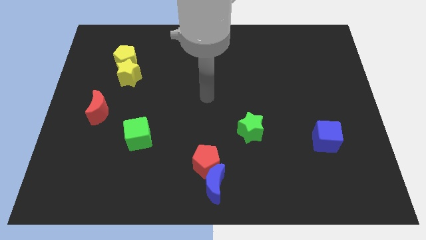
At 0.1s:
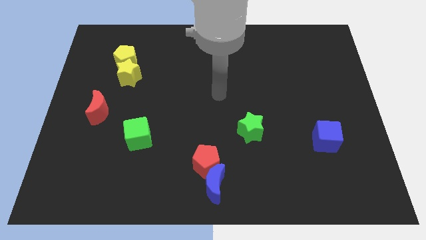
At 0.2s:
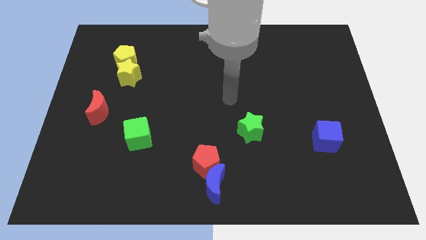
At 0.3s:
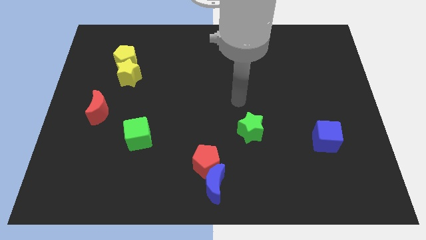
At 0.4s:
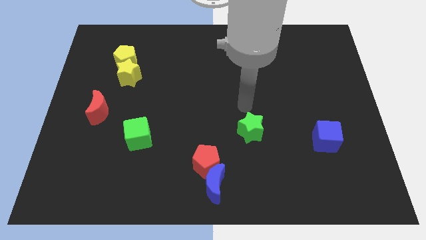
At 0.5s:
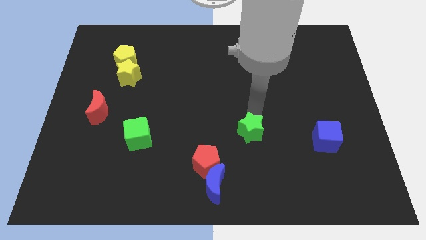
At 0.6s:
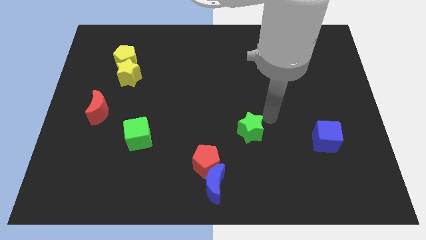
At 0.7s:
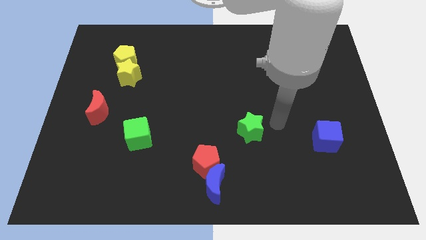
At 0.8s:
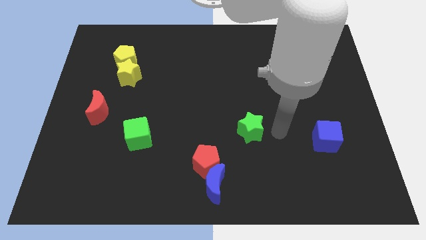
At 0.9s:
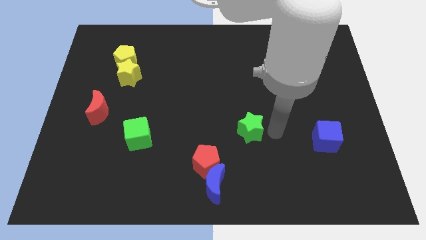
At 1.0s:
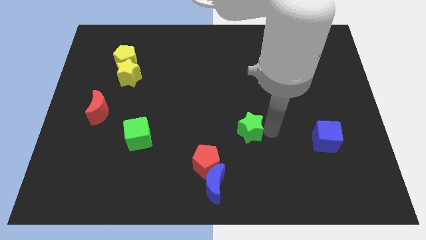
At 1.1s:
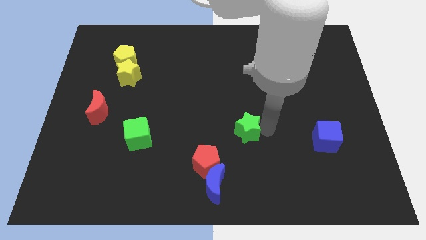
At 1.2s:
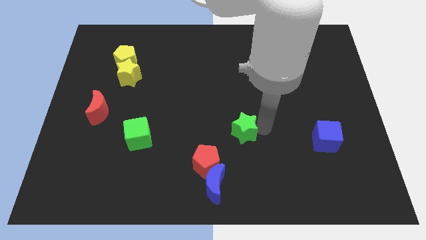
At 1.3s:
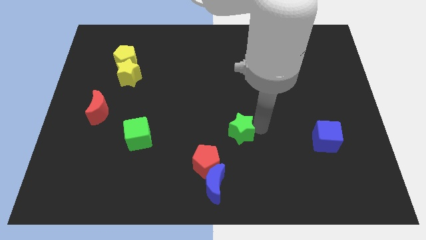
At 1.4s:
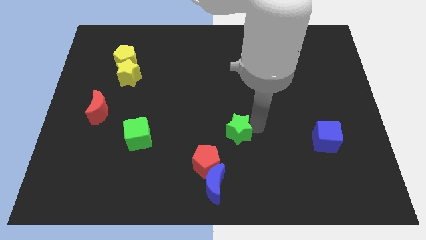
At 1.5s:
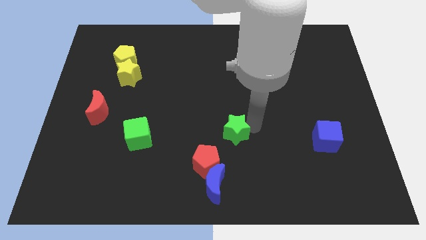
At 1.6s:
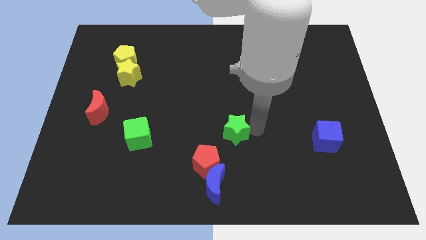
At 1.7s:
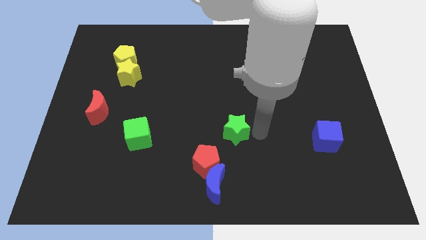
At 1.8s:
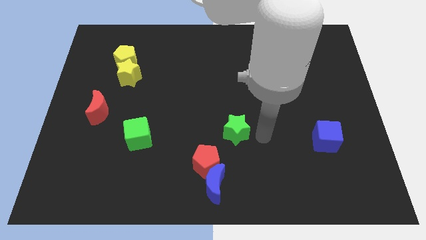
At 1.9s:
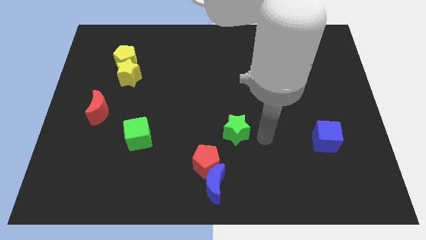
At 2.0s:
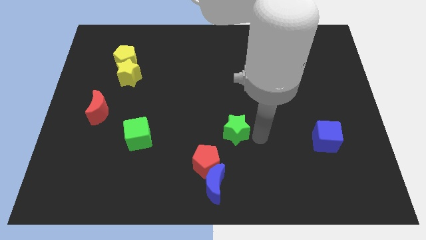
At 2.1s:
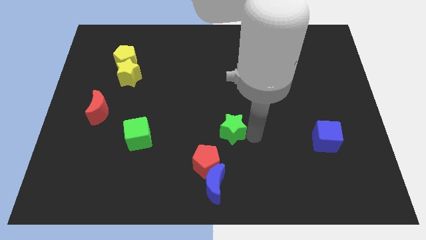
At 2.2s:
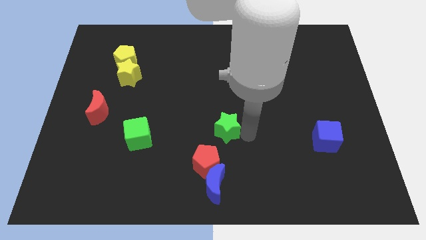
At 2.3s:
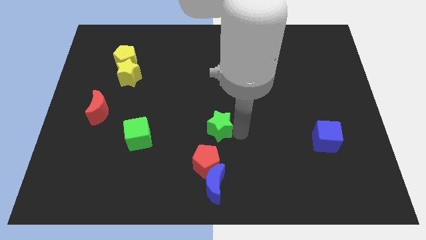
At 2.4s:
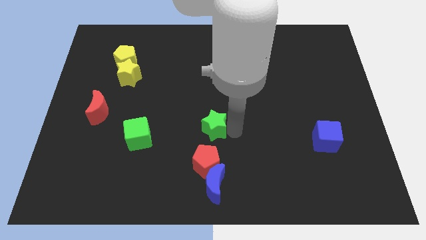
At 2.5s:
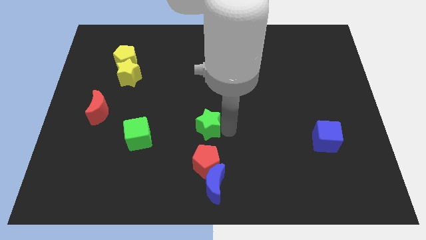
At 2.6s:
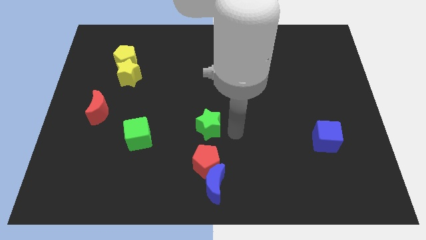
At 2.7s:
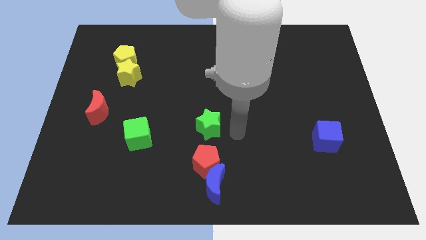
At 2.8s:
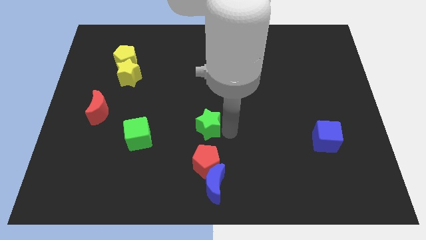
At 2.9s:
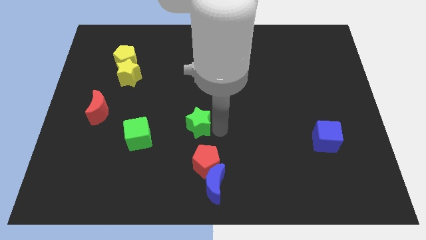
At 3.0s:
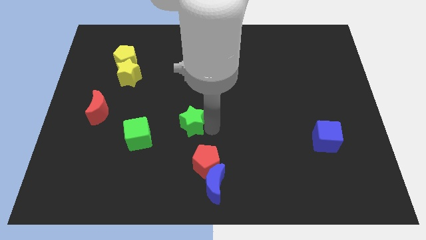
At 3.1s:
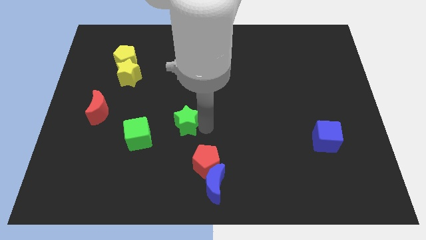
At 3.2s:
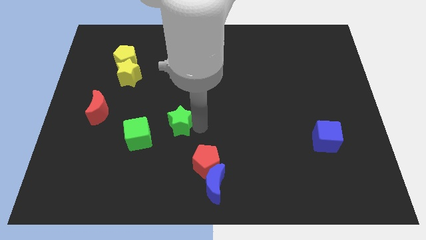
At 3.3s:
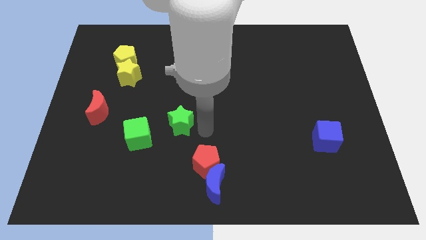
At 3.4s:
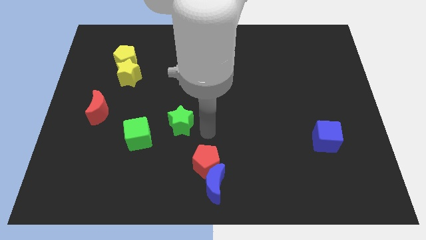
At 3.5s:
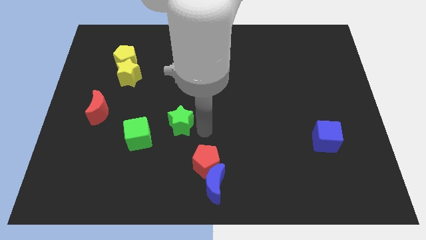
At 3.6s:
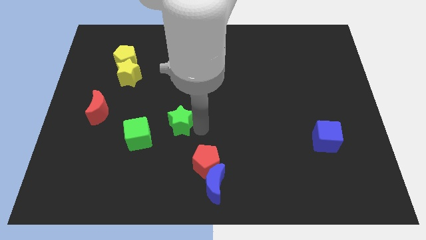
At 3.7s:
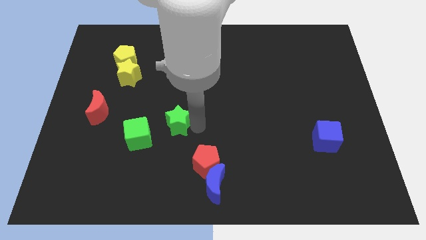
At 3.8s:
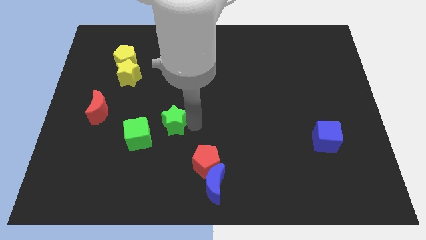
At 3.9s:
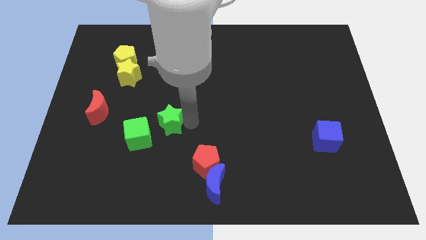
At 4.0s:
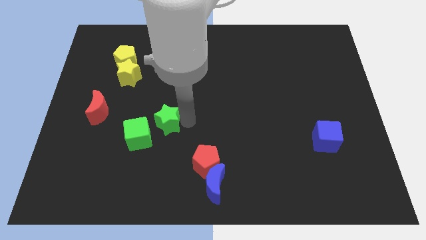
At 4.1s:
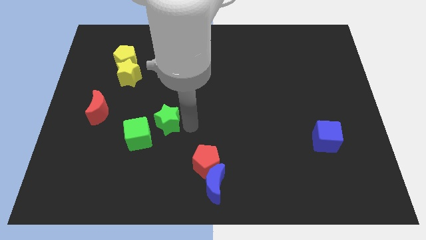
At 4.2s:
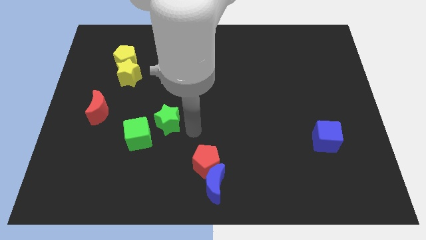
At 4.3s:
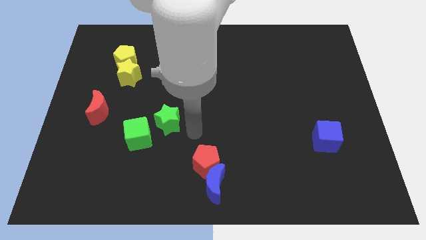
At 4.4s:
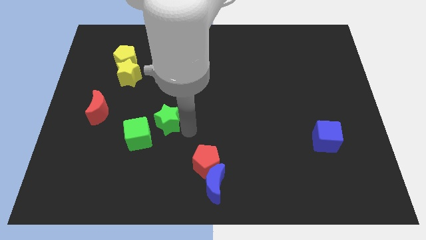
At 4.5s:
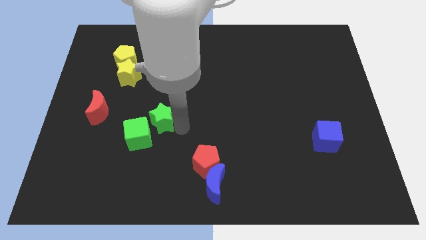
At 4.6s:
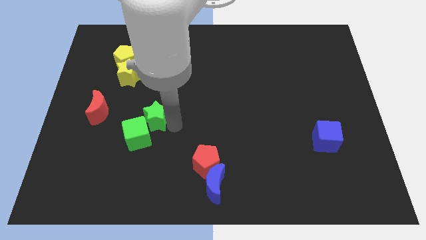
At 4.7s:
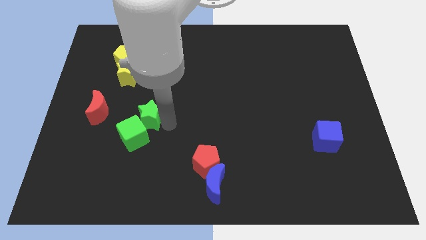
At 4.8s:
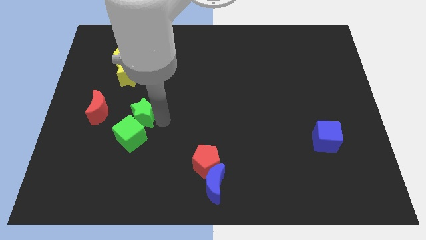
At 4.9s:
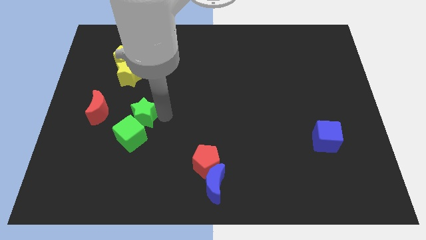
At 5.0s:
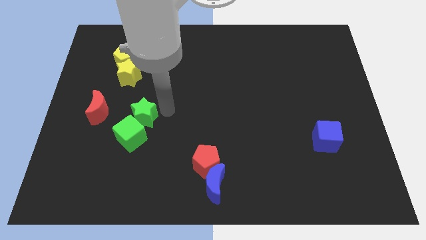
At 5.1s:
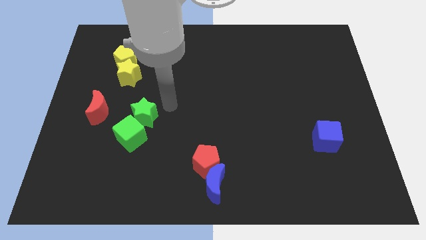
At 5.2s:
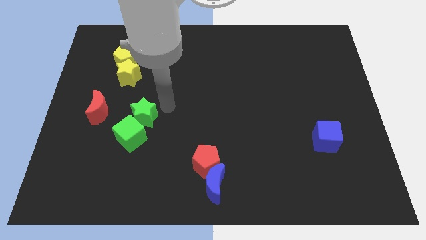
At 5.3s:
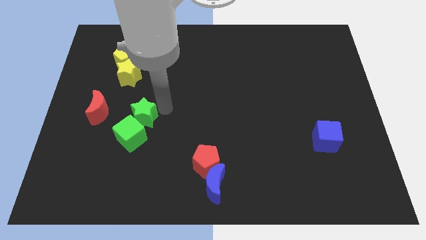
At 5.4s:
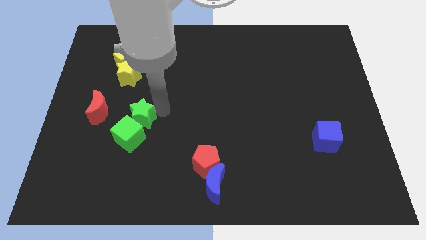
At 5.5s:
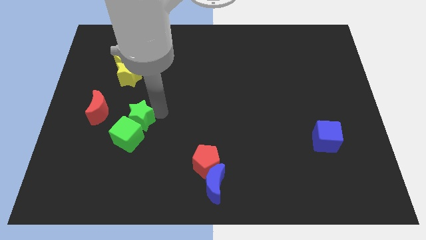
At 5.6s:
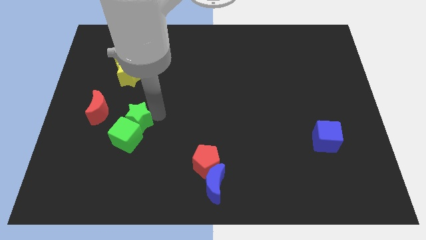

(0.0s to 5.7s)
slide the green star to the bottom right side of the red moon

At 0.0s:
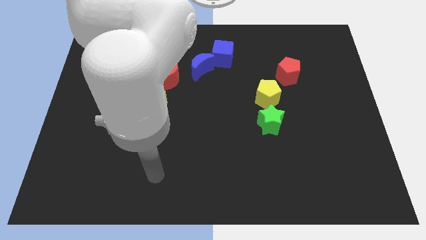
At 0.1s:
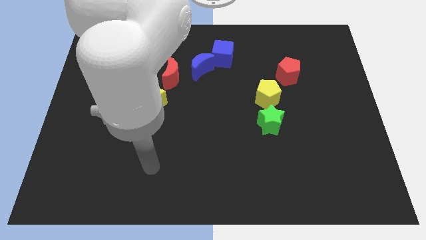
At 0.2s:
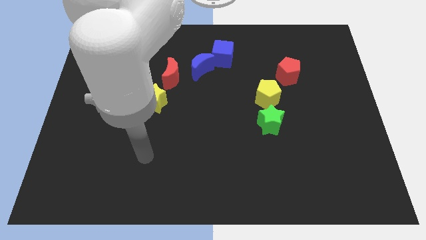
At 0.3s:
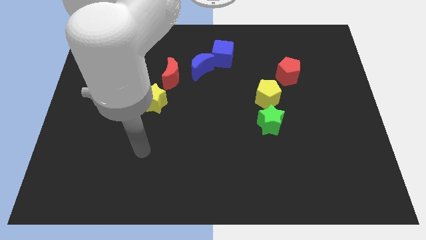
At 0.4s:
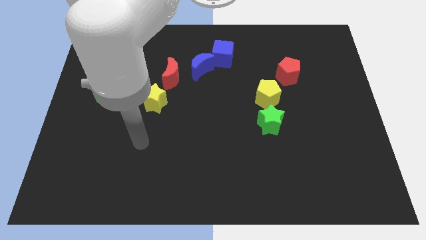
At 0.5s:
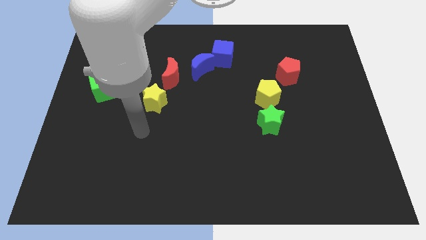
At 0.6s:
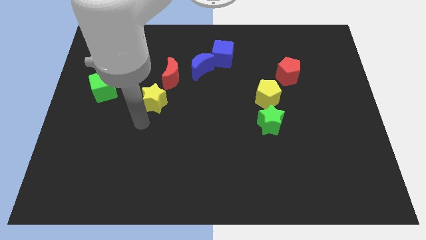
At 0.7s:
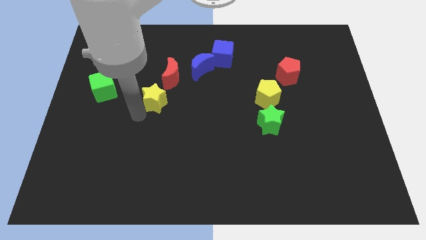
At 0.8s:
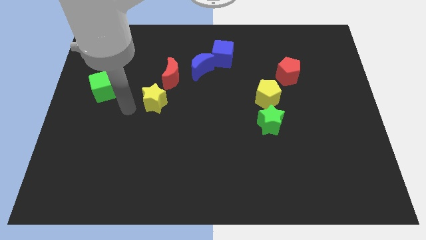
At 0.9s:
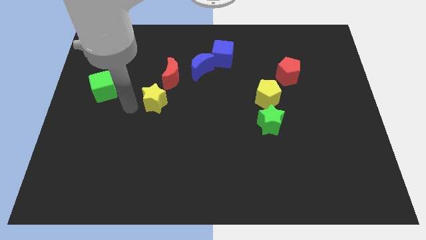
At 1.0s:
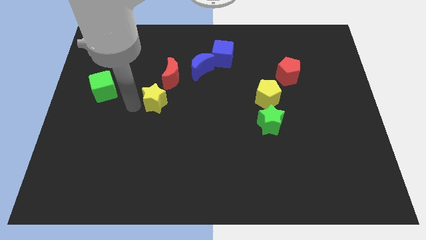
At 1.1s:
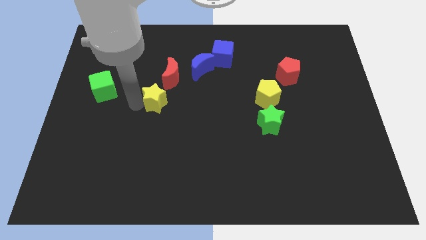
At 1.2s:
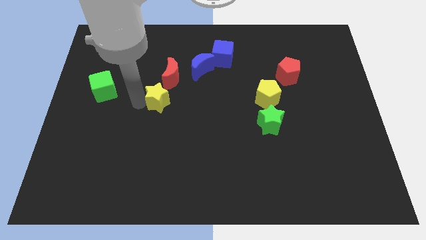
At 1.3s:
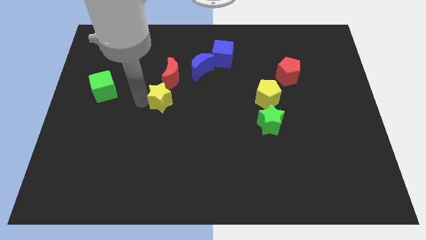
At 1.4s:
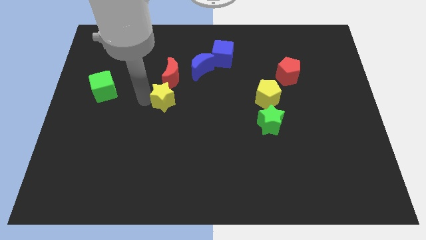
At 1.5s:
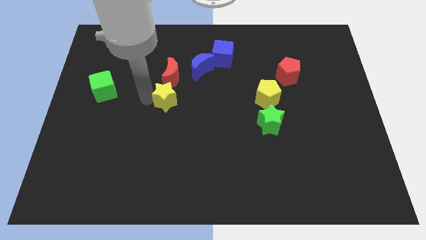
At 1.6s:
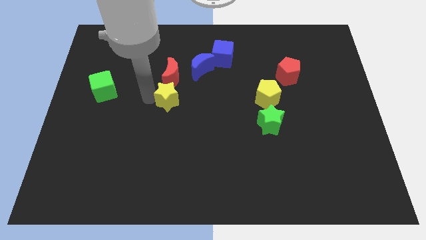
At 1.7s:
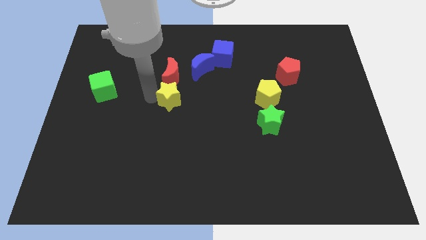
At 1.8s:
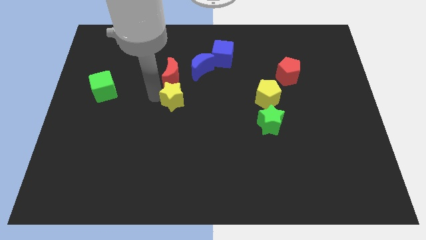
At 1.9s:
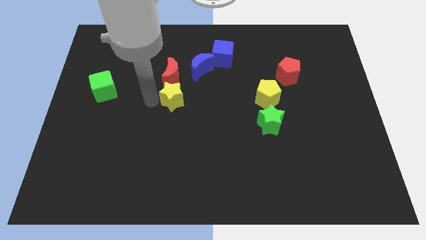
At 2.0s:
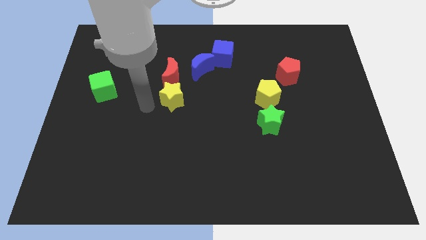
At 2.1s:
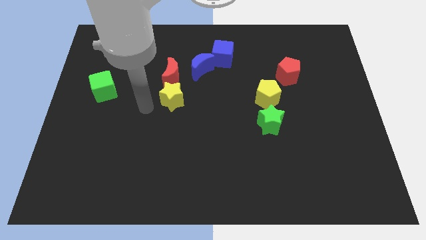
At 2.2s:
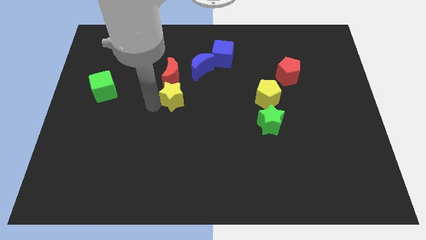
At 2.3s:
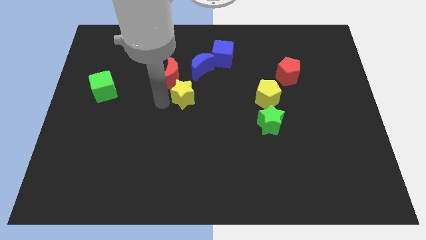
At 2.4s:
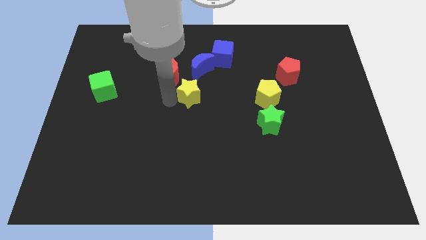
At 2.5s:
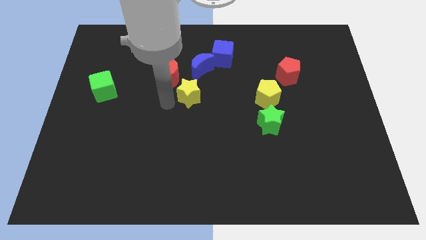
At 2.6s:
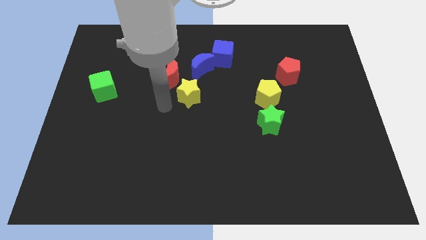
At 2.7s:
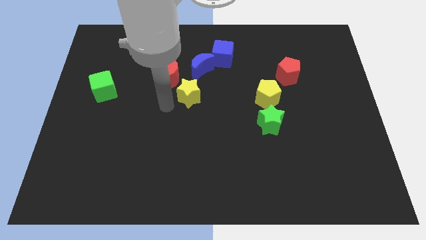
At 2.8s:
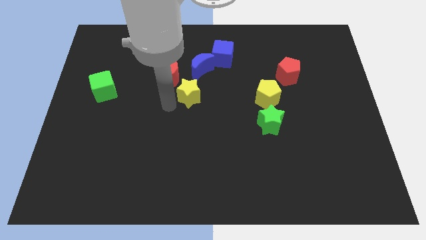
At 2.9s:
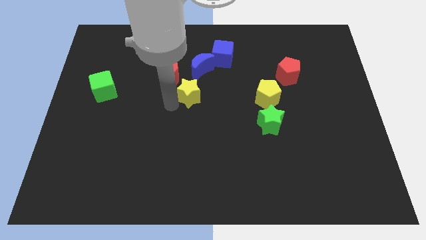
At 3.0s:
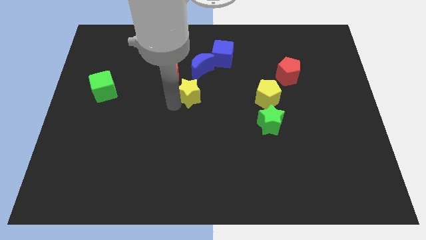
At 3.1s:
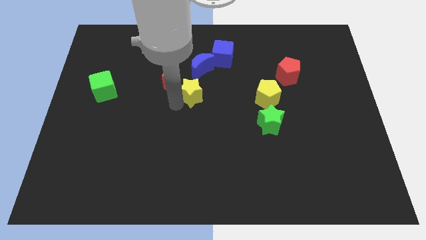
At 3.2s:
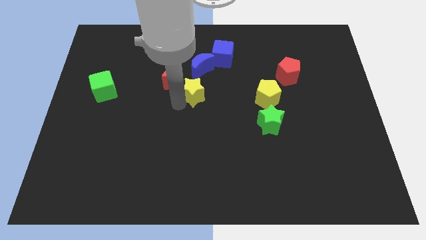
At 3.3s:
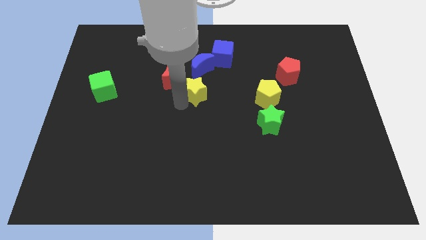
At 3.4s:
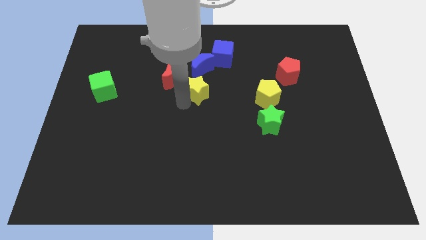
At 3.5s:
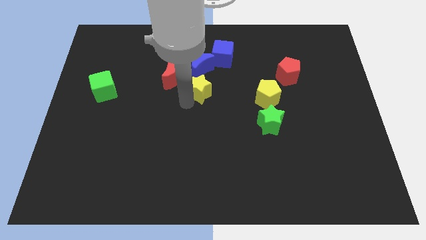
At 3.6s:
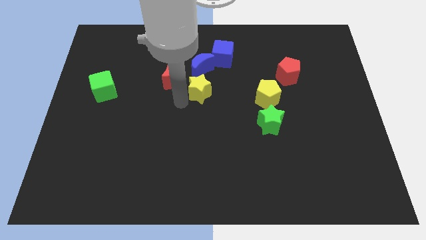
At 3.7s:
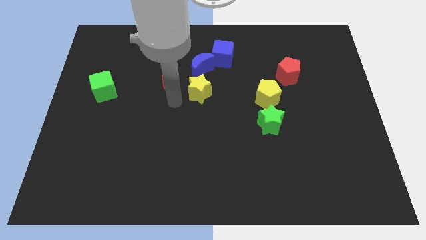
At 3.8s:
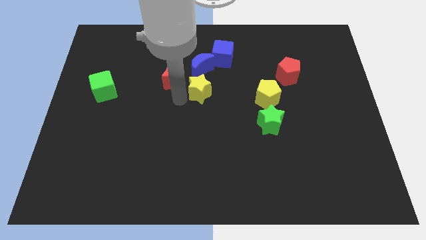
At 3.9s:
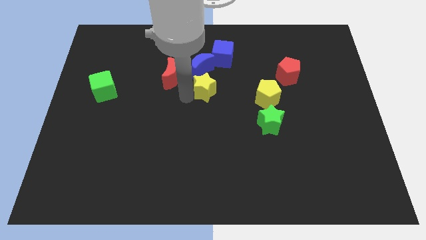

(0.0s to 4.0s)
put the yellow star to the bottom right of the blue moon
